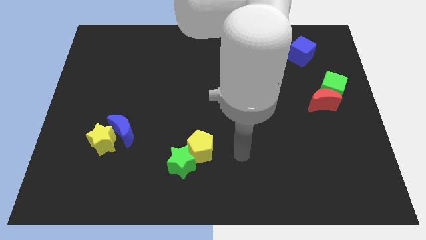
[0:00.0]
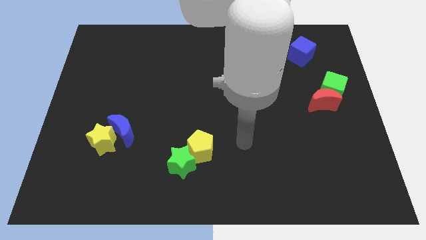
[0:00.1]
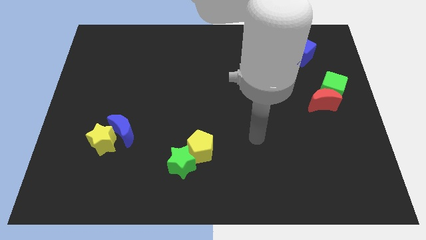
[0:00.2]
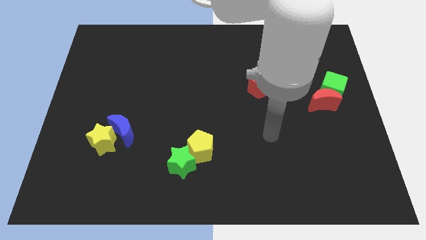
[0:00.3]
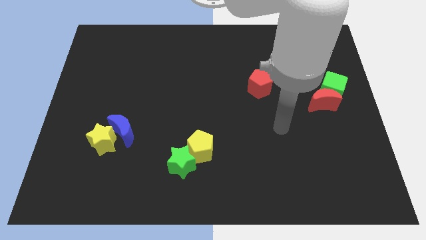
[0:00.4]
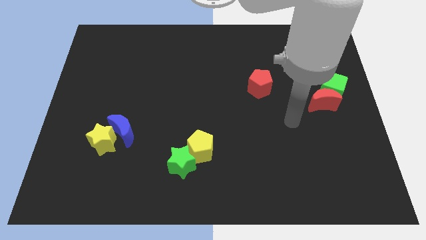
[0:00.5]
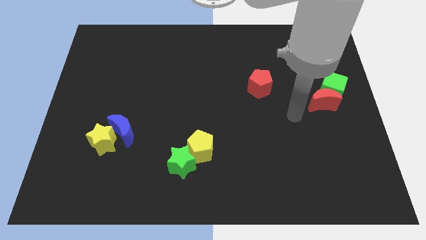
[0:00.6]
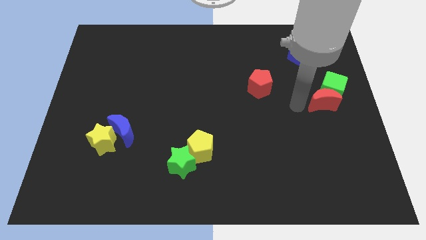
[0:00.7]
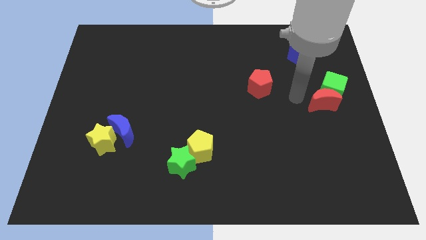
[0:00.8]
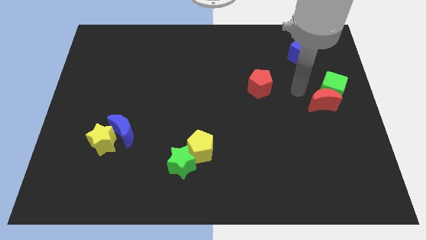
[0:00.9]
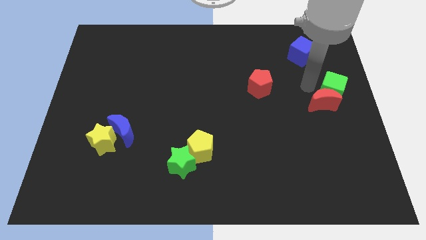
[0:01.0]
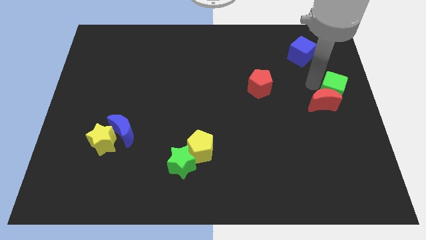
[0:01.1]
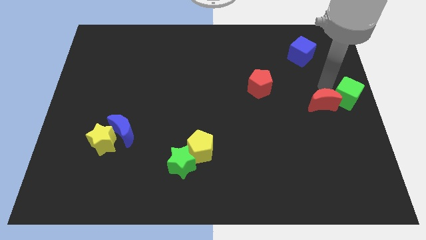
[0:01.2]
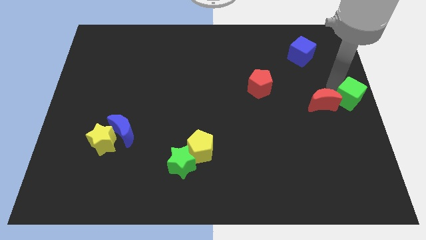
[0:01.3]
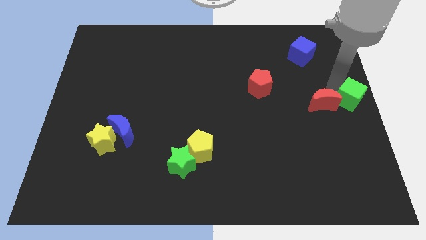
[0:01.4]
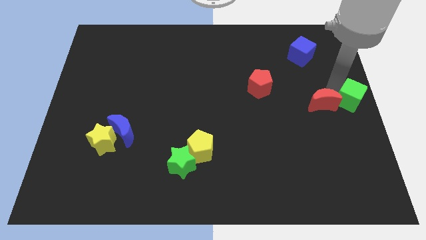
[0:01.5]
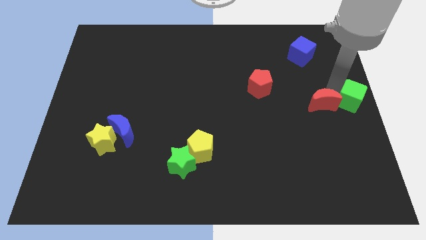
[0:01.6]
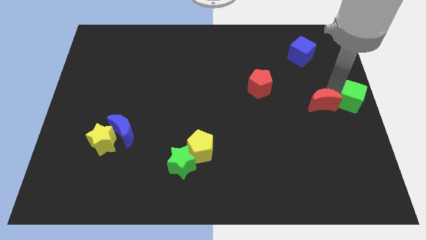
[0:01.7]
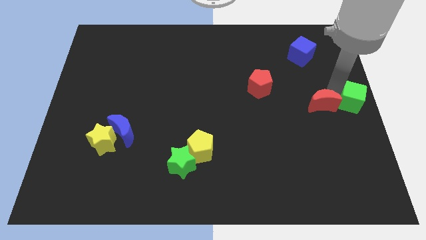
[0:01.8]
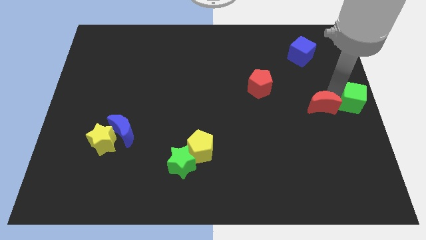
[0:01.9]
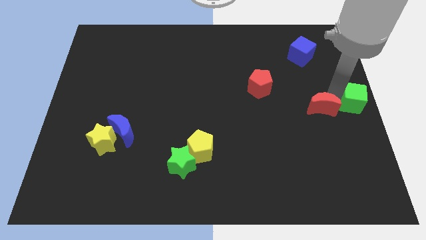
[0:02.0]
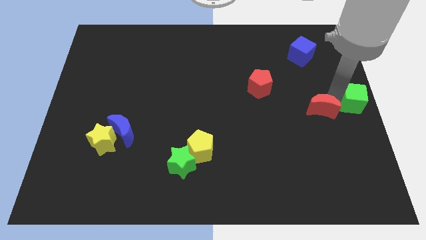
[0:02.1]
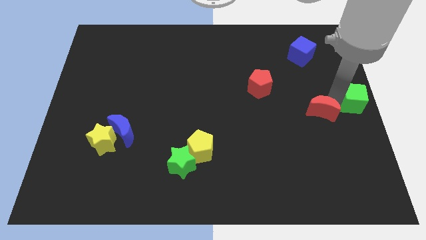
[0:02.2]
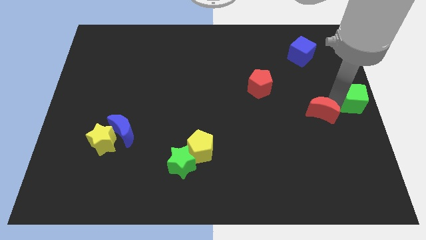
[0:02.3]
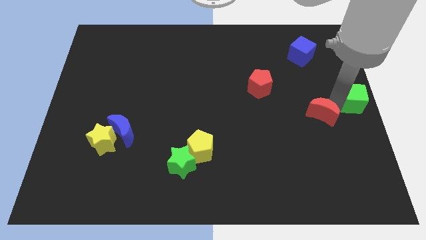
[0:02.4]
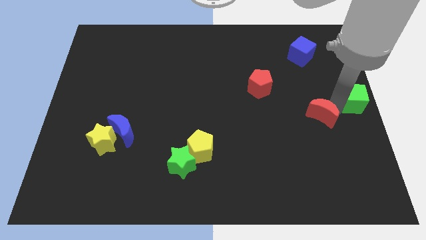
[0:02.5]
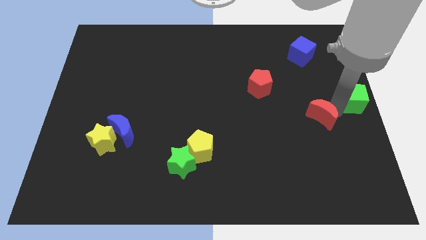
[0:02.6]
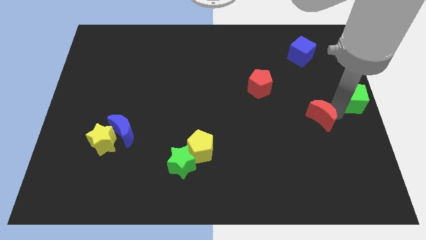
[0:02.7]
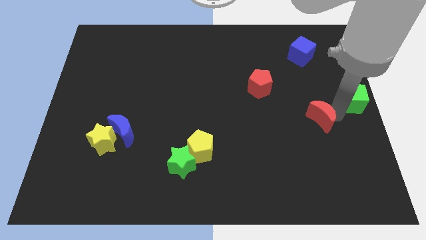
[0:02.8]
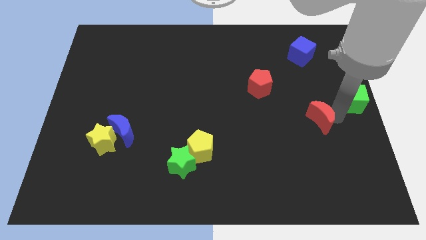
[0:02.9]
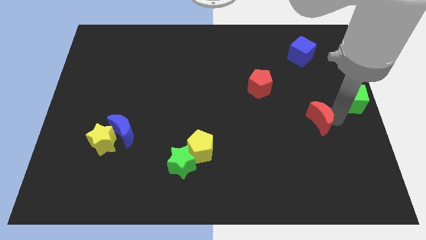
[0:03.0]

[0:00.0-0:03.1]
move the red moon away from the green cube

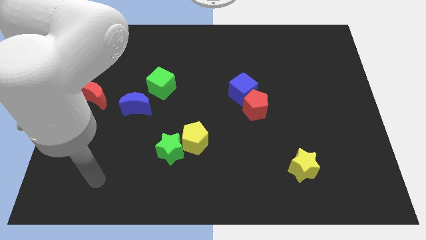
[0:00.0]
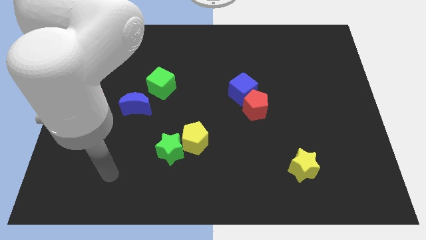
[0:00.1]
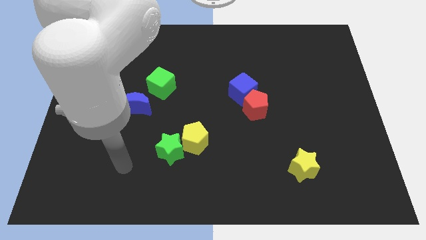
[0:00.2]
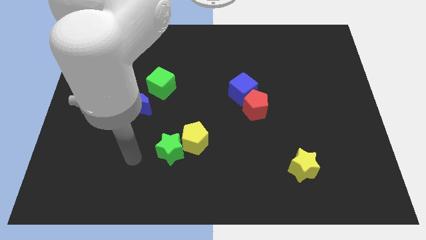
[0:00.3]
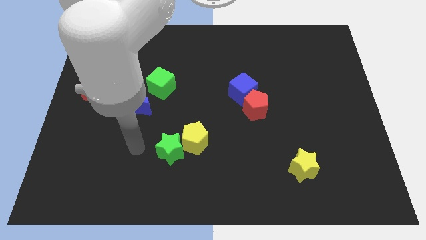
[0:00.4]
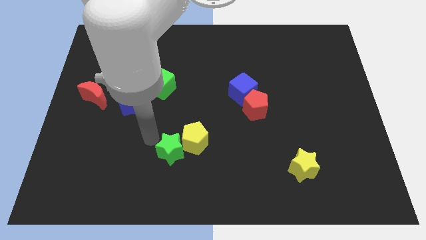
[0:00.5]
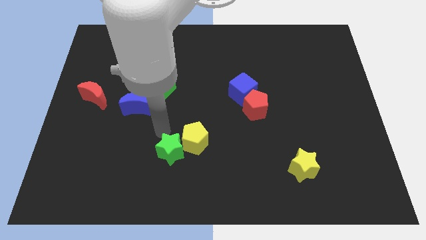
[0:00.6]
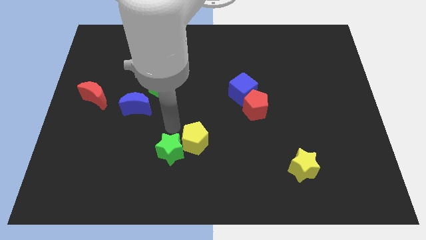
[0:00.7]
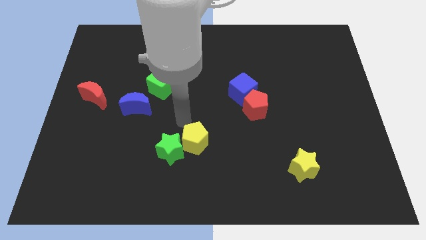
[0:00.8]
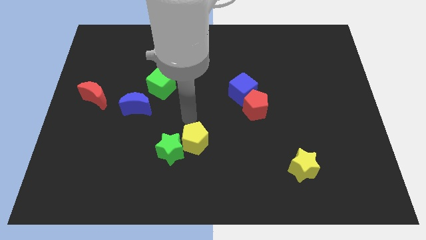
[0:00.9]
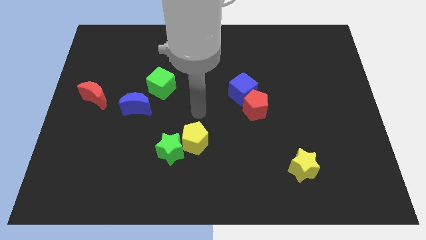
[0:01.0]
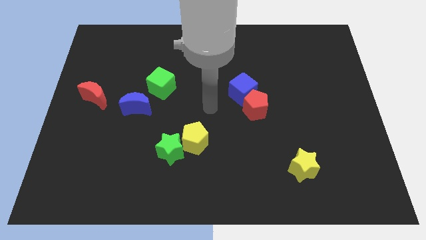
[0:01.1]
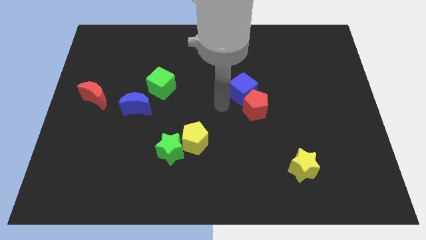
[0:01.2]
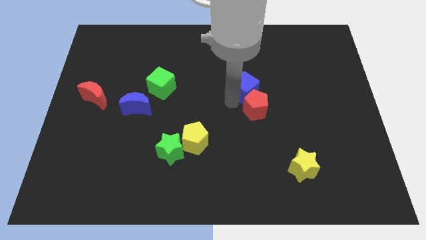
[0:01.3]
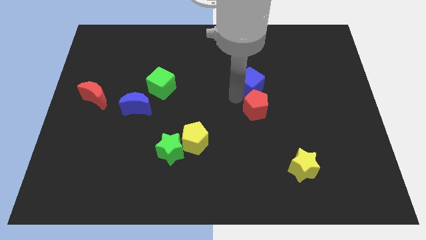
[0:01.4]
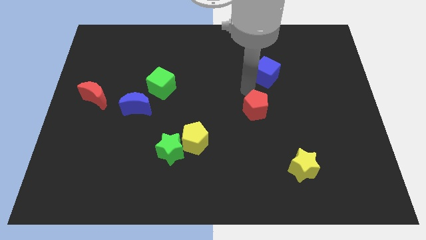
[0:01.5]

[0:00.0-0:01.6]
pull the red pentagon apart from the blue cube

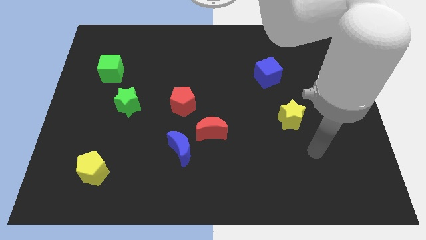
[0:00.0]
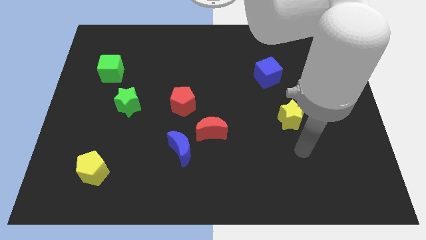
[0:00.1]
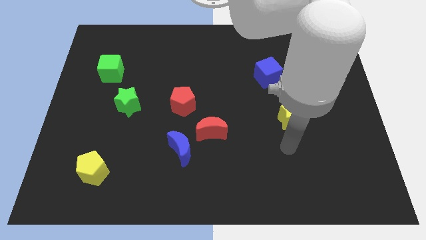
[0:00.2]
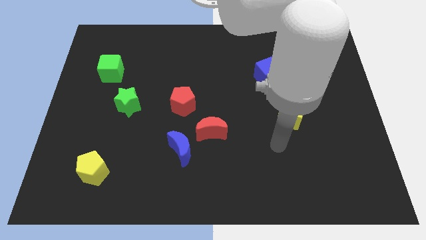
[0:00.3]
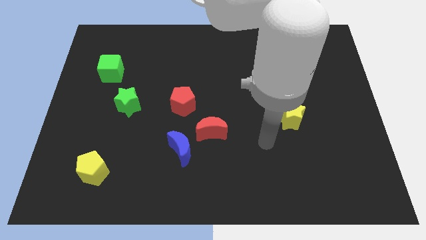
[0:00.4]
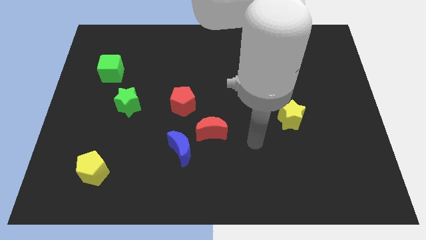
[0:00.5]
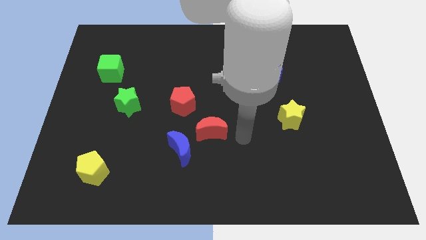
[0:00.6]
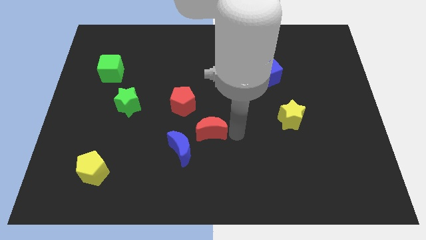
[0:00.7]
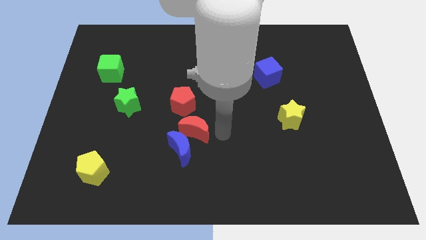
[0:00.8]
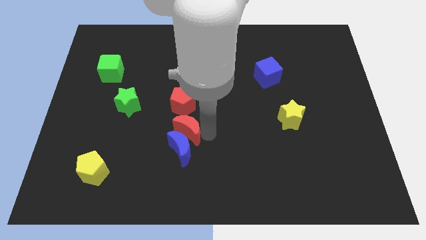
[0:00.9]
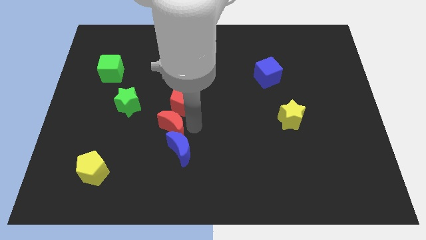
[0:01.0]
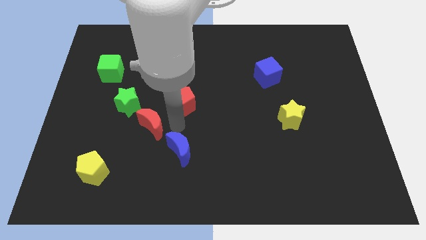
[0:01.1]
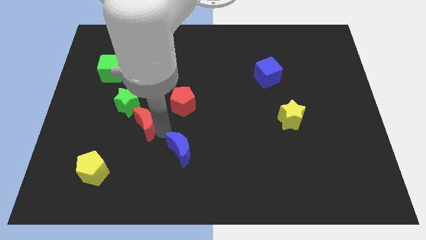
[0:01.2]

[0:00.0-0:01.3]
separate the blue moon from the red moon

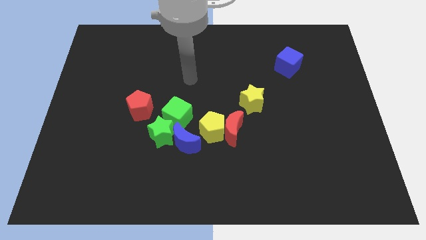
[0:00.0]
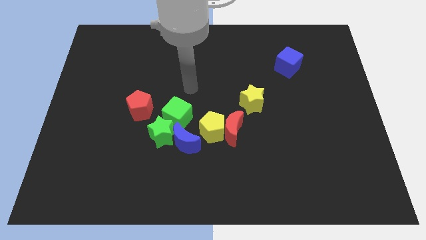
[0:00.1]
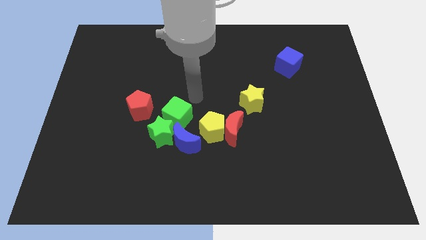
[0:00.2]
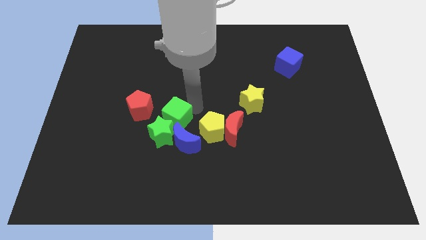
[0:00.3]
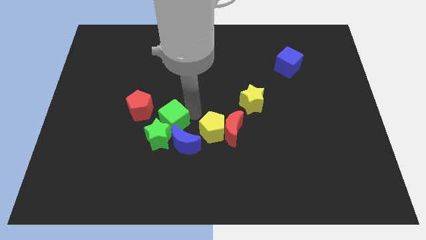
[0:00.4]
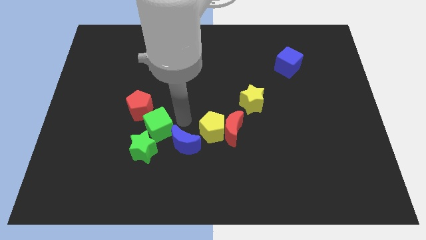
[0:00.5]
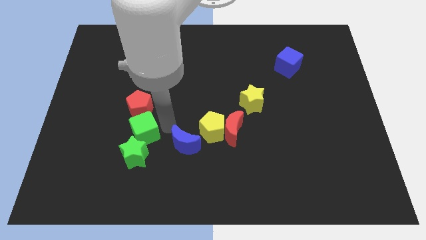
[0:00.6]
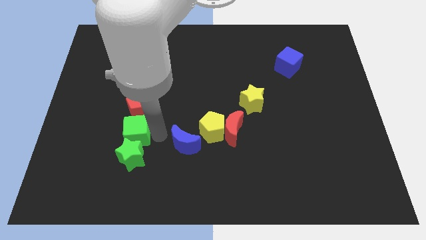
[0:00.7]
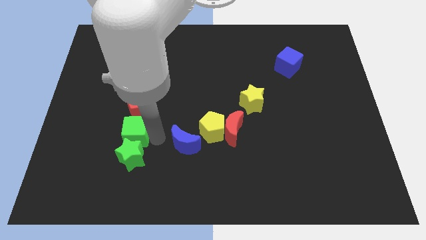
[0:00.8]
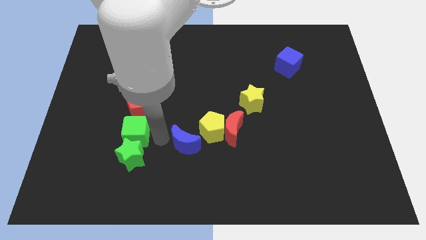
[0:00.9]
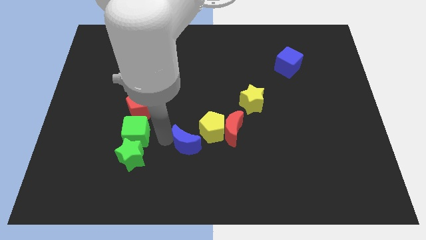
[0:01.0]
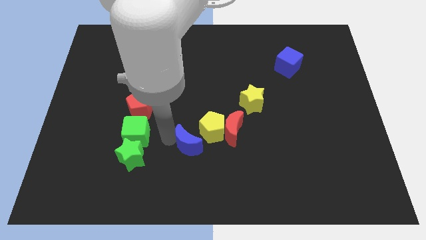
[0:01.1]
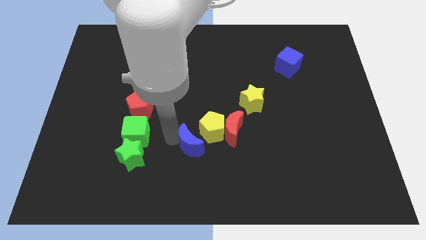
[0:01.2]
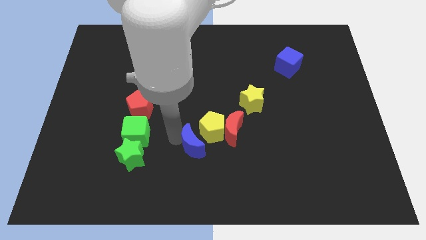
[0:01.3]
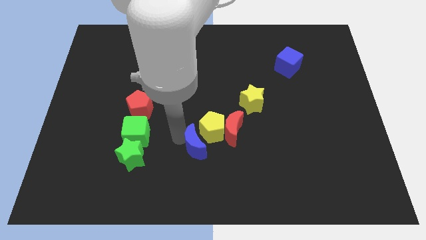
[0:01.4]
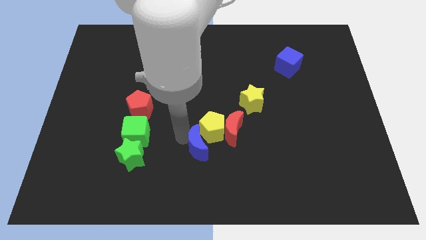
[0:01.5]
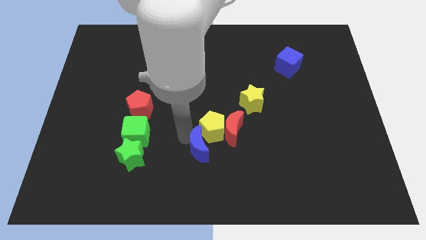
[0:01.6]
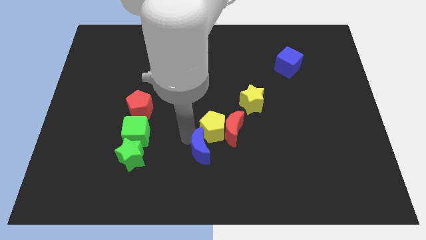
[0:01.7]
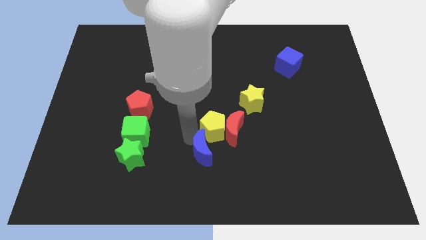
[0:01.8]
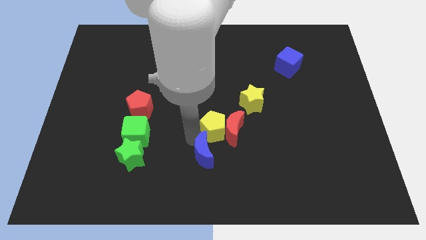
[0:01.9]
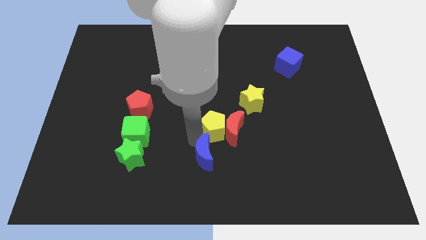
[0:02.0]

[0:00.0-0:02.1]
separate the blue moon from the green star, yellow pentagon, and green cube

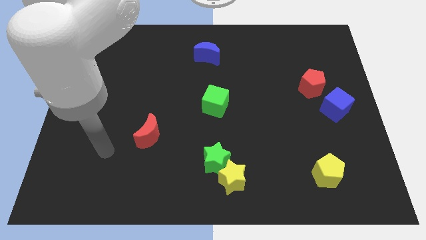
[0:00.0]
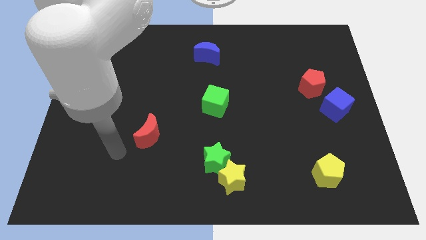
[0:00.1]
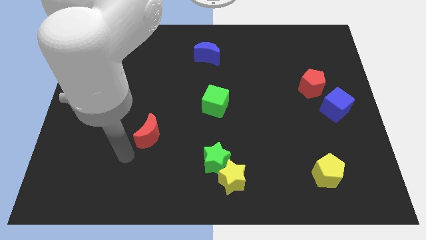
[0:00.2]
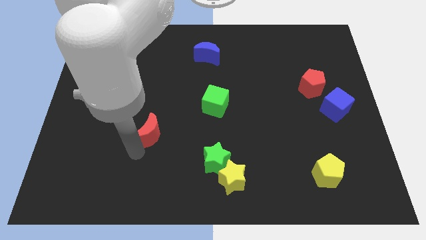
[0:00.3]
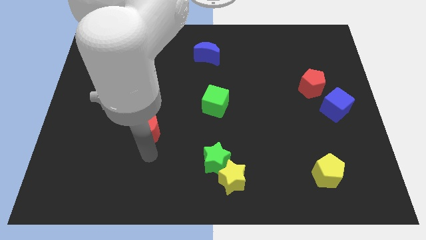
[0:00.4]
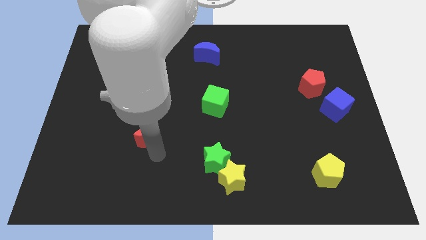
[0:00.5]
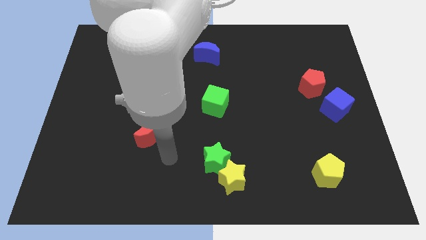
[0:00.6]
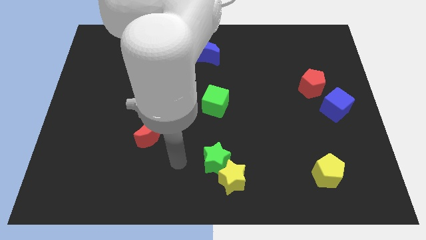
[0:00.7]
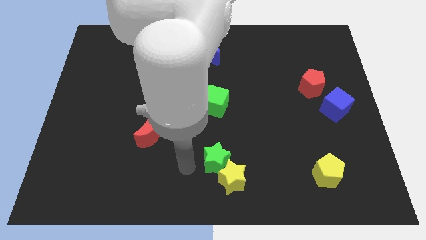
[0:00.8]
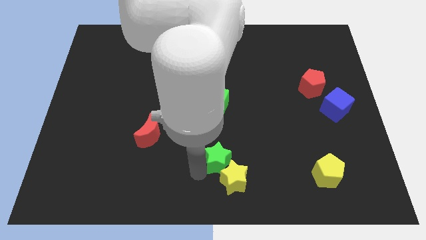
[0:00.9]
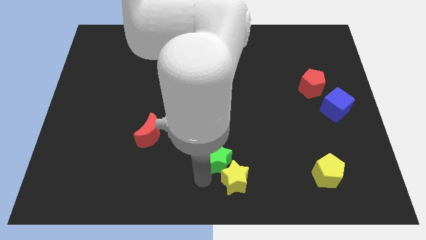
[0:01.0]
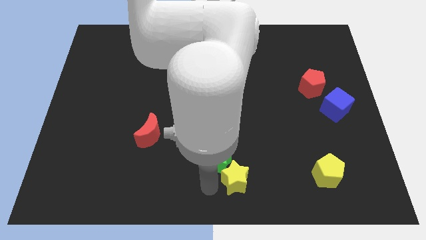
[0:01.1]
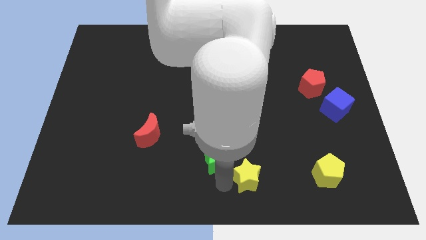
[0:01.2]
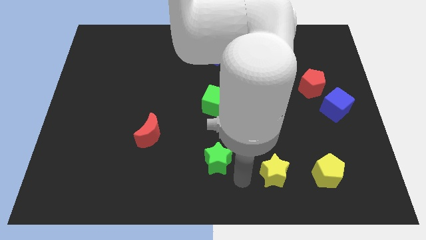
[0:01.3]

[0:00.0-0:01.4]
separate the green star from the yellow star

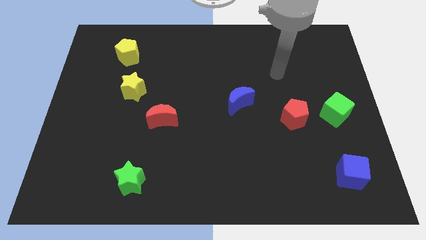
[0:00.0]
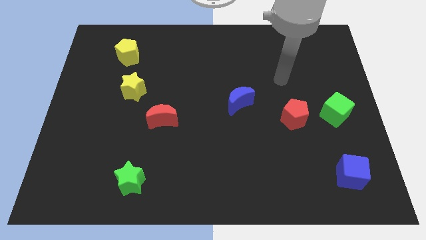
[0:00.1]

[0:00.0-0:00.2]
pull the red pentagon apart from the green cube
